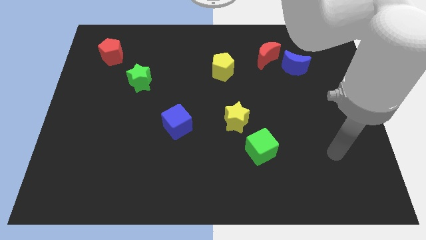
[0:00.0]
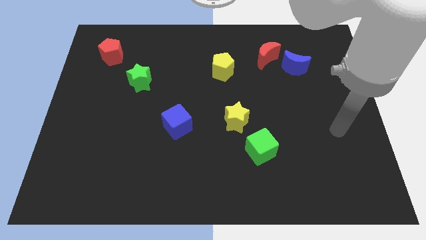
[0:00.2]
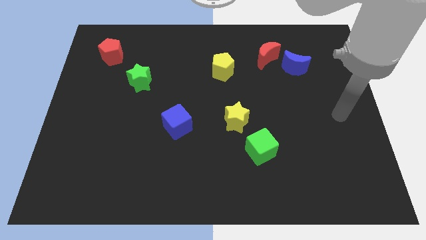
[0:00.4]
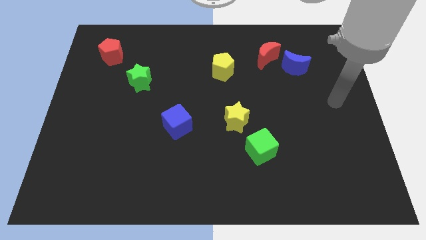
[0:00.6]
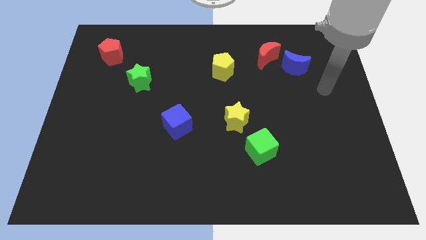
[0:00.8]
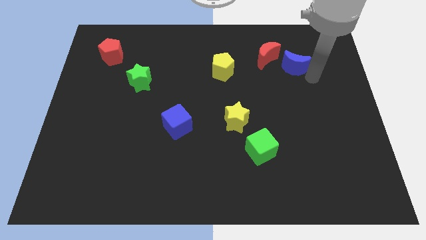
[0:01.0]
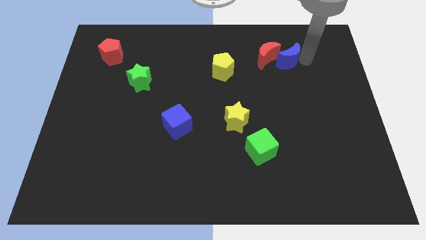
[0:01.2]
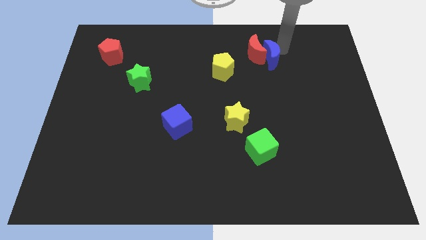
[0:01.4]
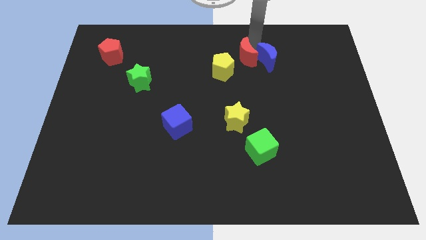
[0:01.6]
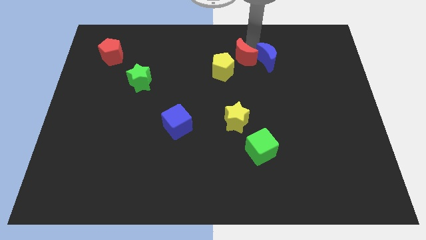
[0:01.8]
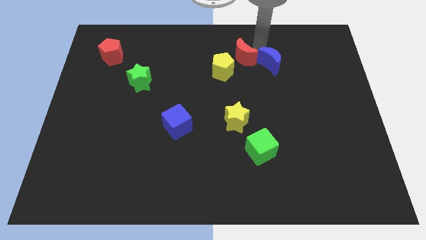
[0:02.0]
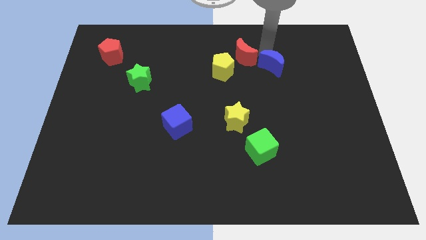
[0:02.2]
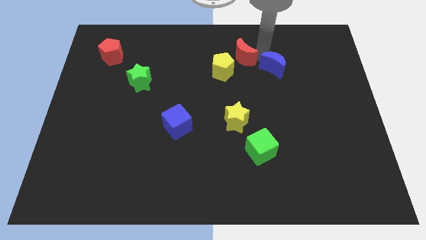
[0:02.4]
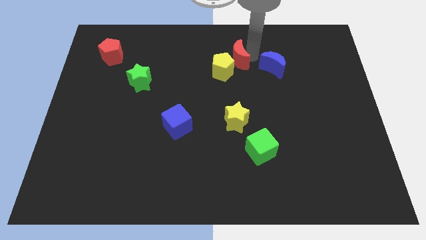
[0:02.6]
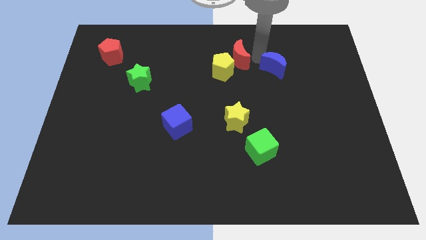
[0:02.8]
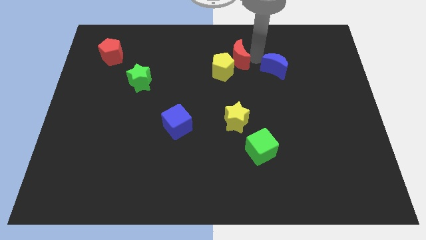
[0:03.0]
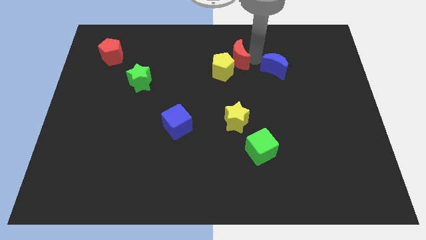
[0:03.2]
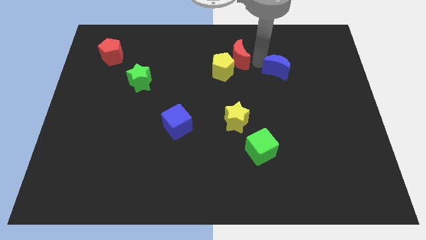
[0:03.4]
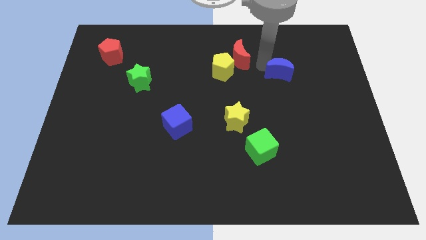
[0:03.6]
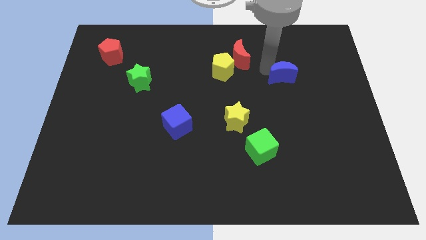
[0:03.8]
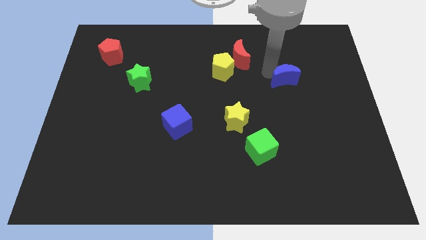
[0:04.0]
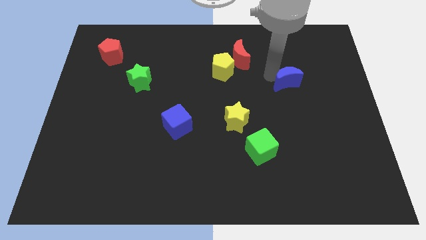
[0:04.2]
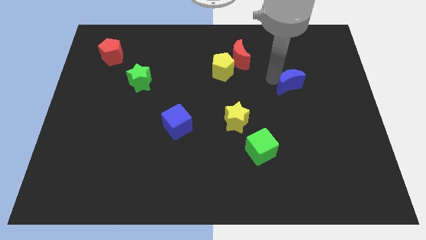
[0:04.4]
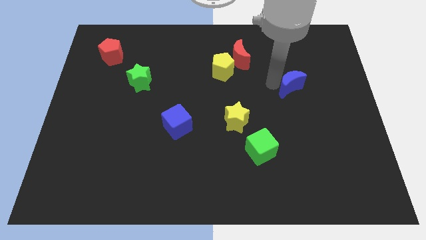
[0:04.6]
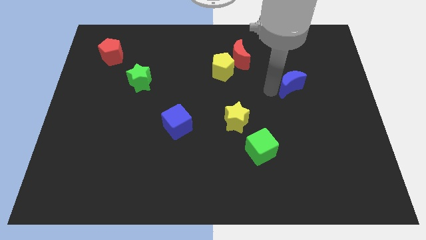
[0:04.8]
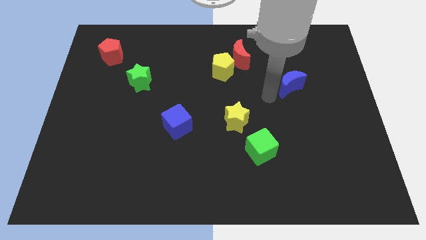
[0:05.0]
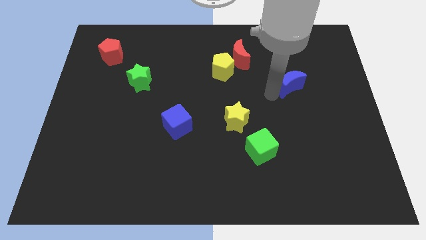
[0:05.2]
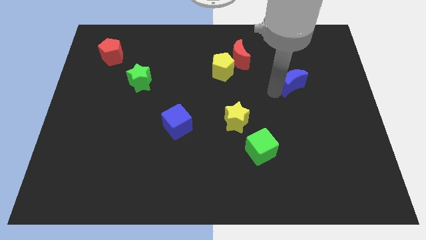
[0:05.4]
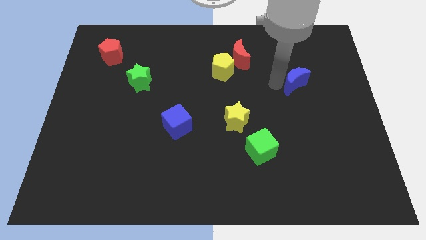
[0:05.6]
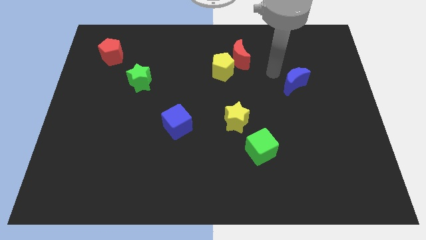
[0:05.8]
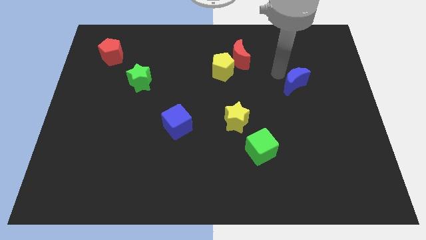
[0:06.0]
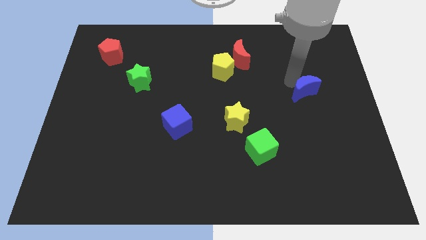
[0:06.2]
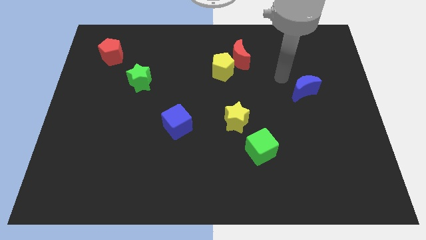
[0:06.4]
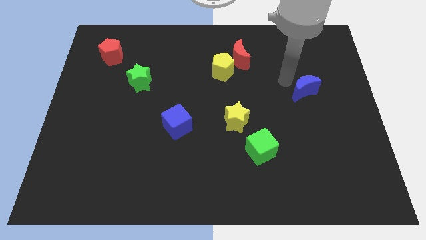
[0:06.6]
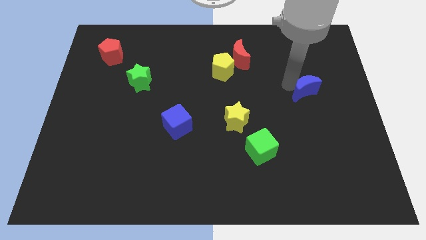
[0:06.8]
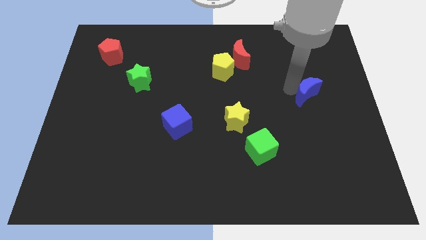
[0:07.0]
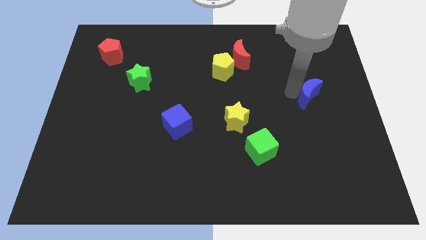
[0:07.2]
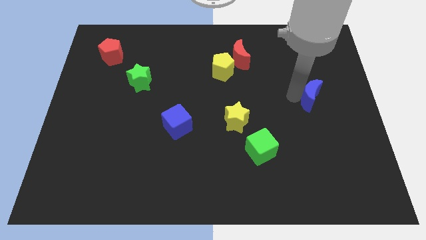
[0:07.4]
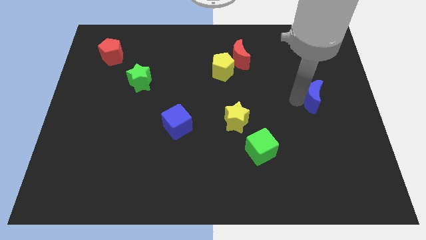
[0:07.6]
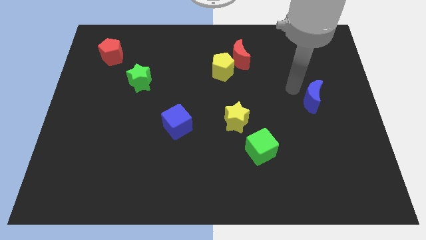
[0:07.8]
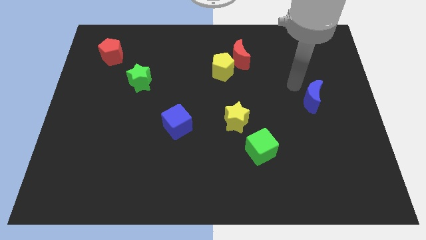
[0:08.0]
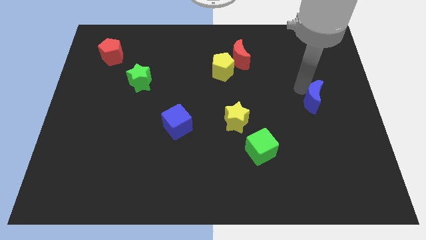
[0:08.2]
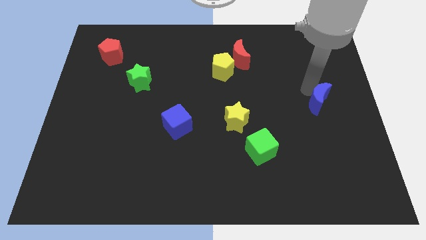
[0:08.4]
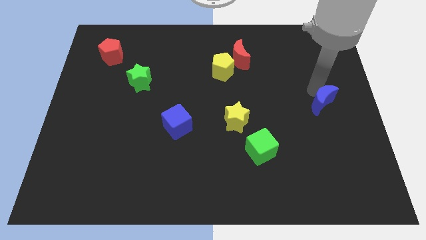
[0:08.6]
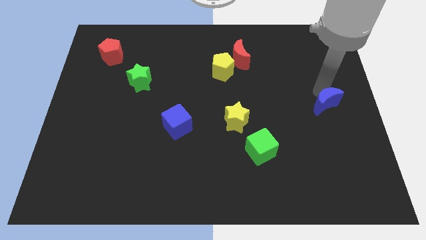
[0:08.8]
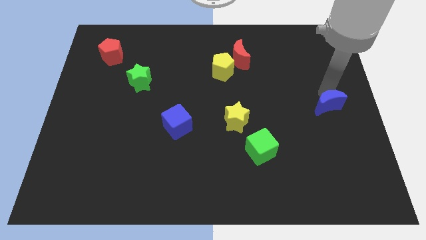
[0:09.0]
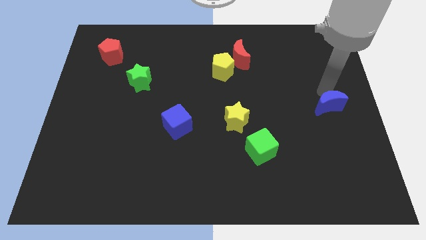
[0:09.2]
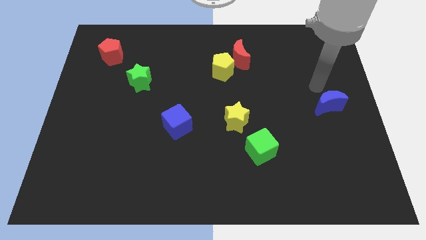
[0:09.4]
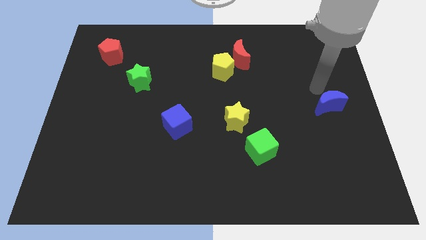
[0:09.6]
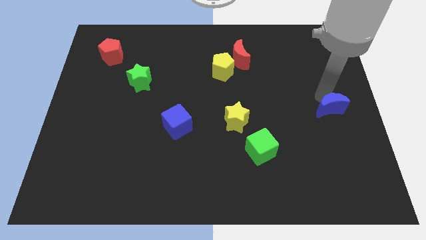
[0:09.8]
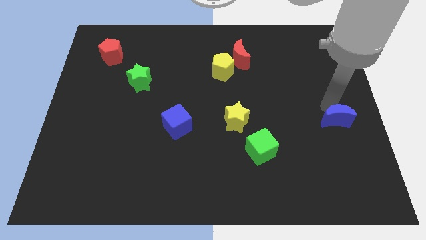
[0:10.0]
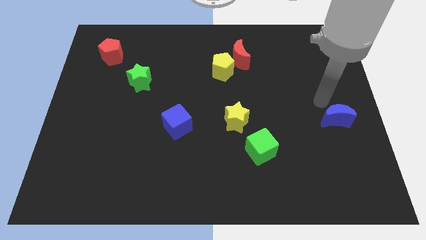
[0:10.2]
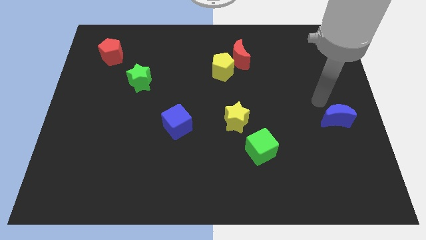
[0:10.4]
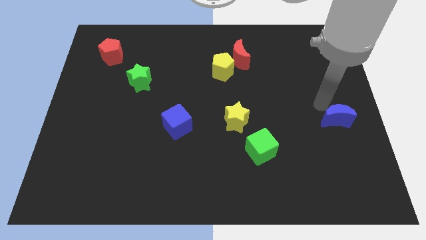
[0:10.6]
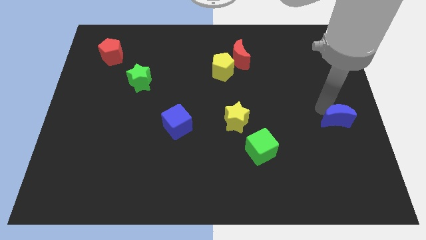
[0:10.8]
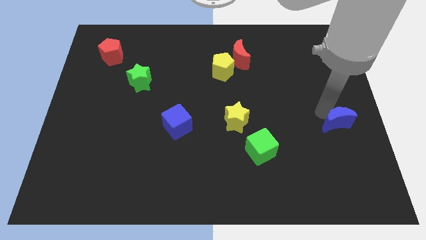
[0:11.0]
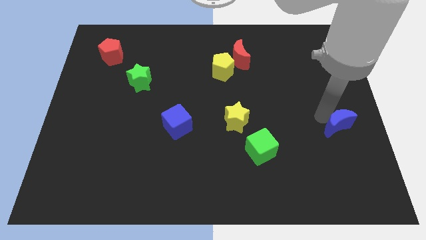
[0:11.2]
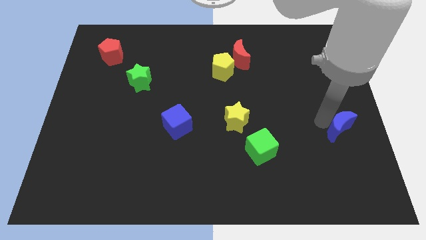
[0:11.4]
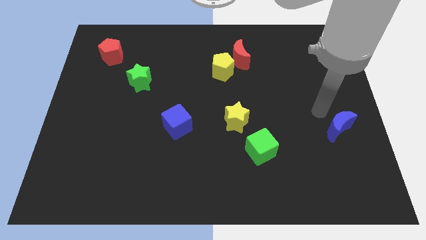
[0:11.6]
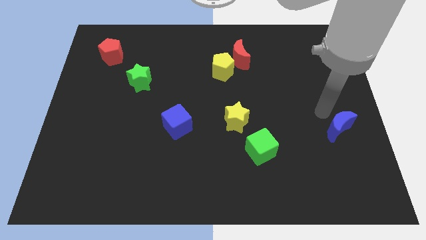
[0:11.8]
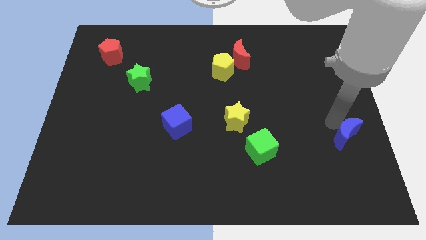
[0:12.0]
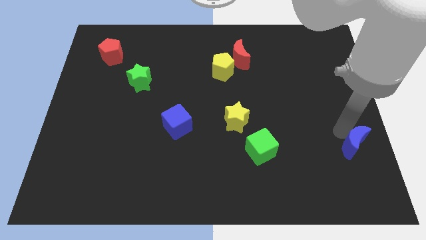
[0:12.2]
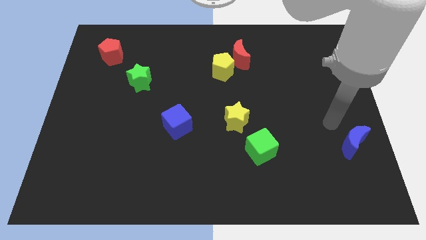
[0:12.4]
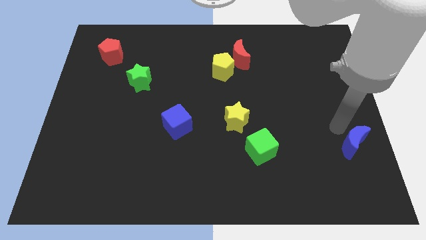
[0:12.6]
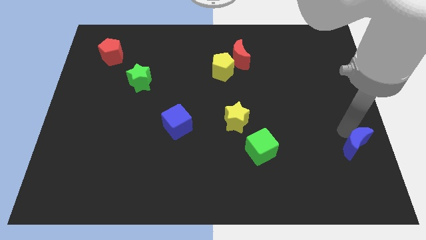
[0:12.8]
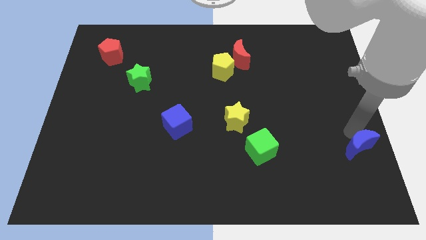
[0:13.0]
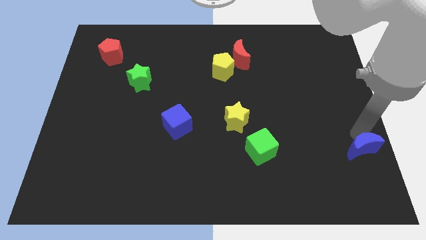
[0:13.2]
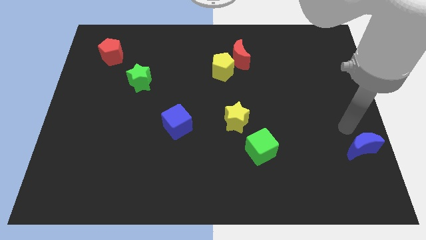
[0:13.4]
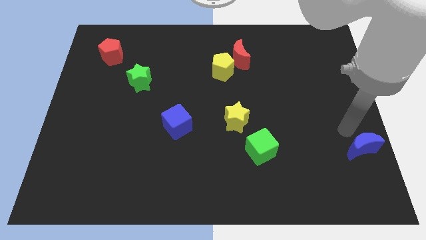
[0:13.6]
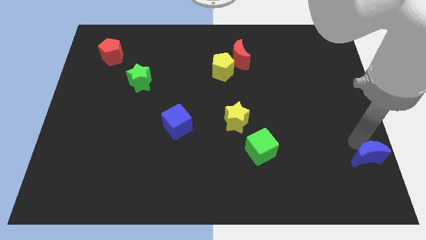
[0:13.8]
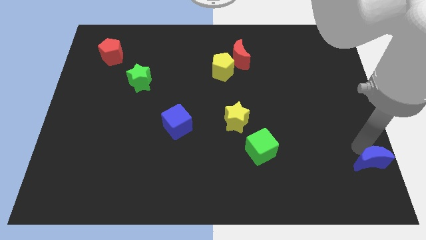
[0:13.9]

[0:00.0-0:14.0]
move the blue moon to the bottom right corner
